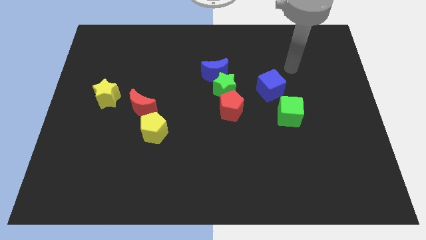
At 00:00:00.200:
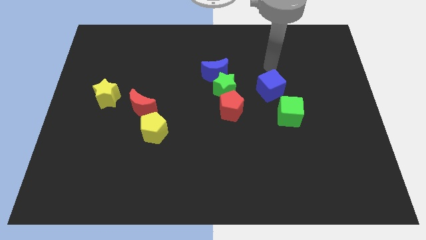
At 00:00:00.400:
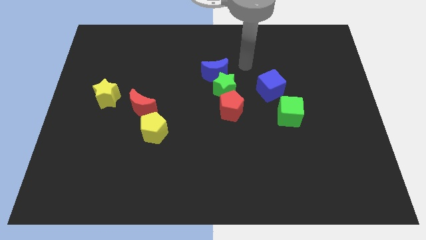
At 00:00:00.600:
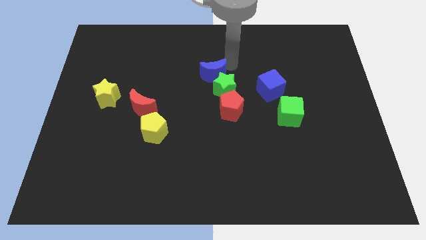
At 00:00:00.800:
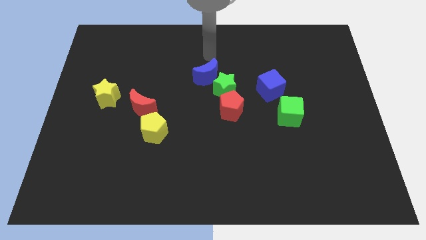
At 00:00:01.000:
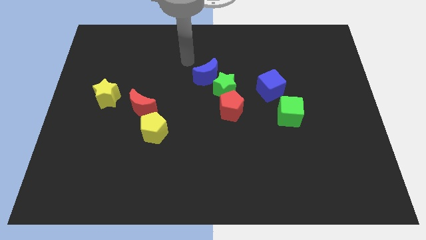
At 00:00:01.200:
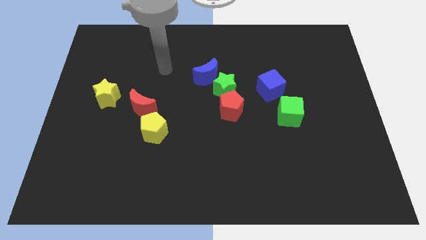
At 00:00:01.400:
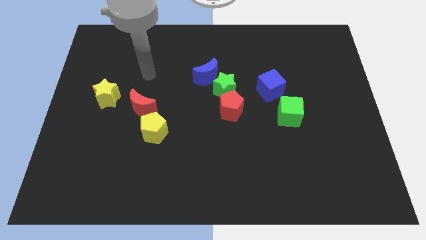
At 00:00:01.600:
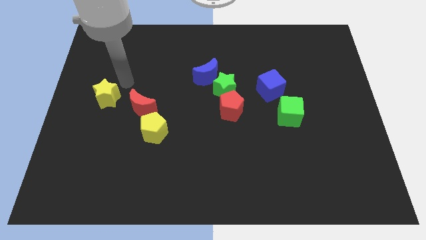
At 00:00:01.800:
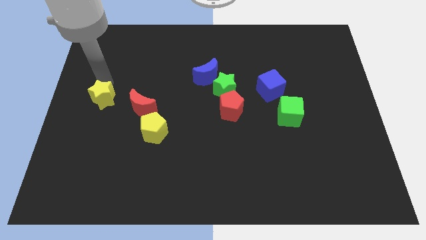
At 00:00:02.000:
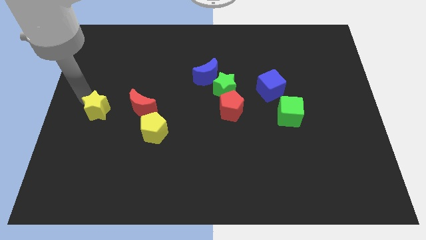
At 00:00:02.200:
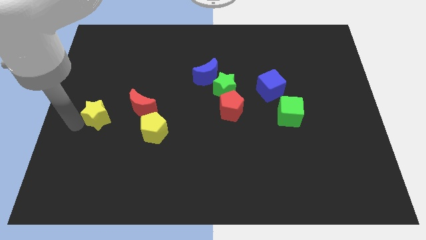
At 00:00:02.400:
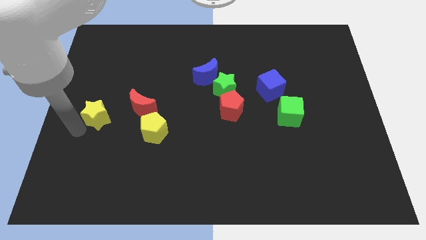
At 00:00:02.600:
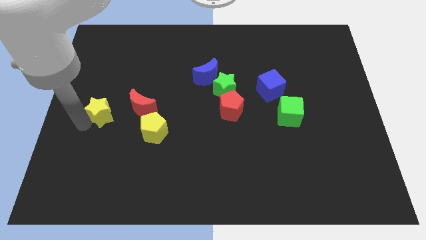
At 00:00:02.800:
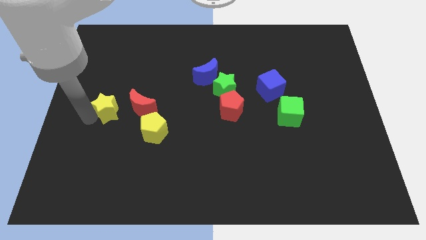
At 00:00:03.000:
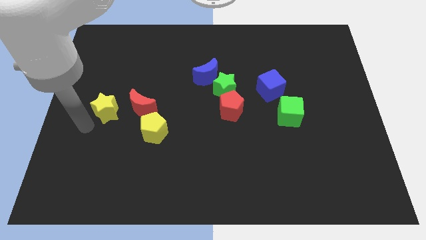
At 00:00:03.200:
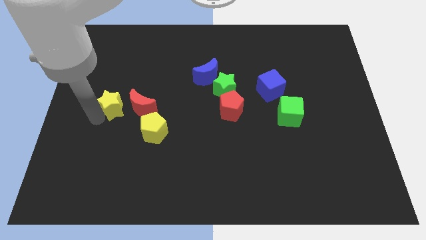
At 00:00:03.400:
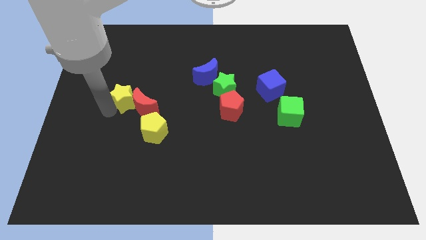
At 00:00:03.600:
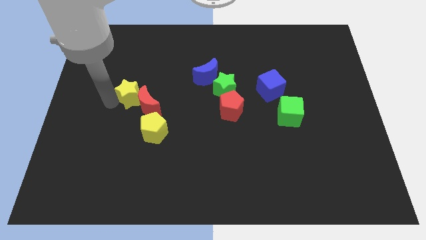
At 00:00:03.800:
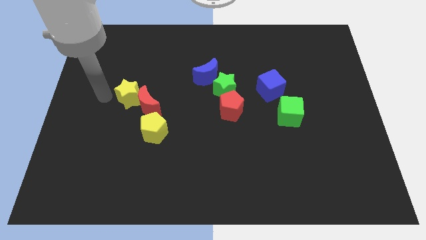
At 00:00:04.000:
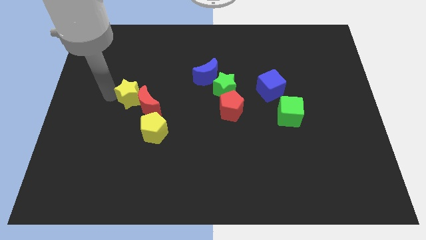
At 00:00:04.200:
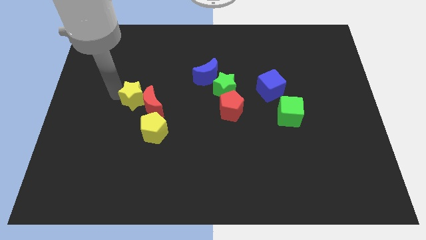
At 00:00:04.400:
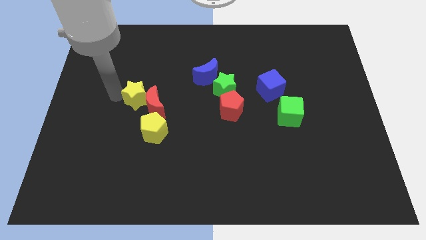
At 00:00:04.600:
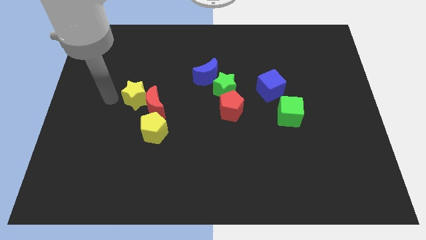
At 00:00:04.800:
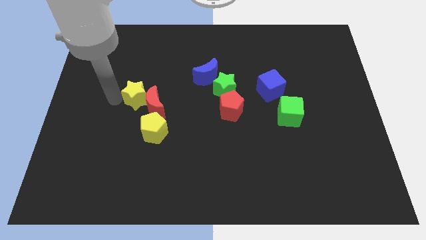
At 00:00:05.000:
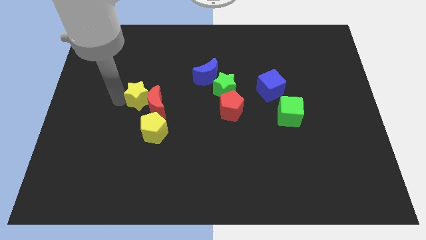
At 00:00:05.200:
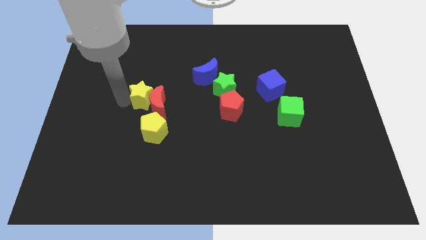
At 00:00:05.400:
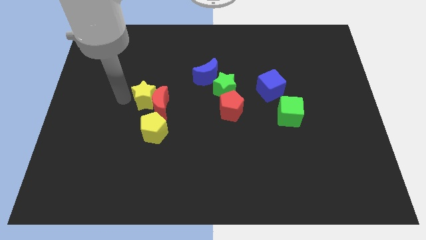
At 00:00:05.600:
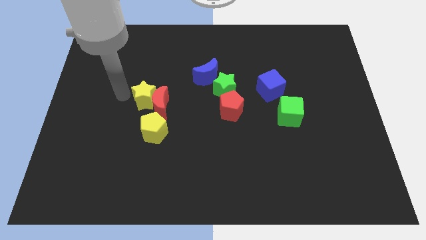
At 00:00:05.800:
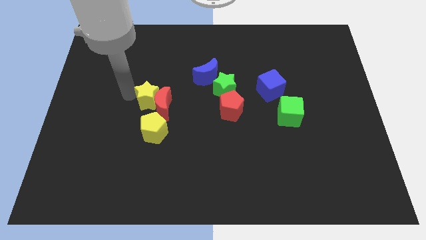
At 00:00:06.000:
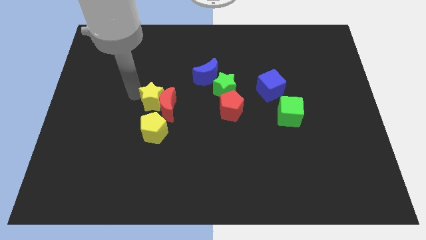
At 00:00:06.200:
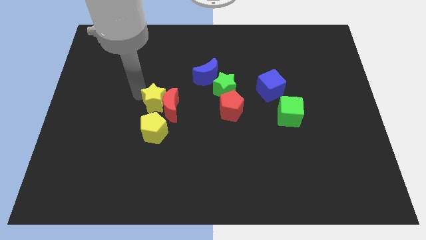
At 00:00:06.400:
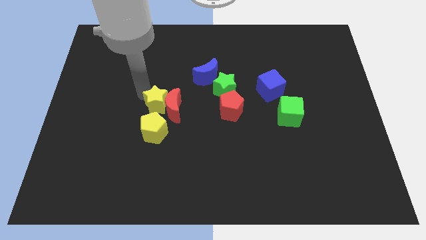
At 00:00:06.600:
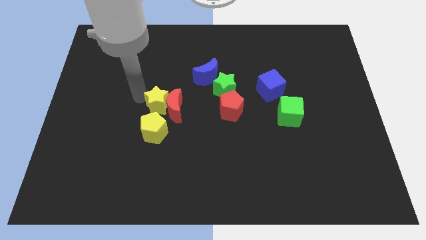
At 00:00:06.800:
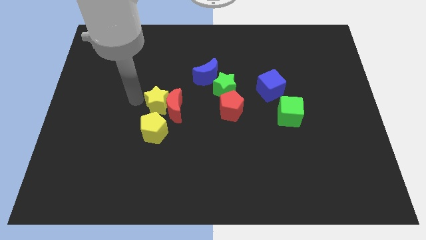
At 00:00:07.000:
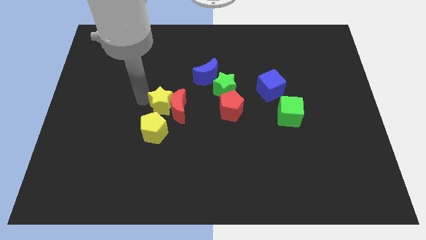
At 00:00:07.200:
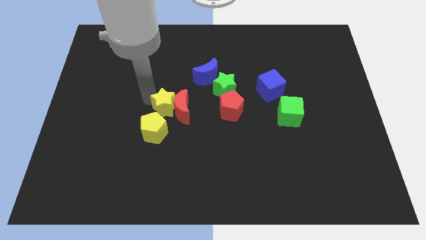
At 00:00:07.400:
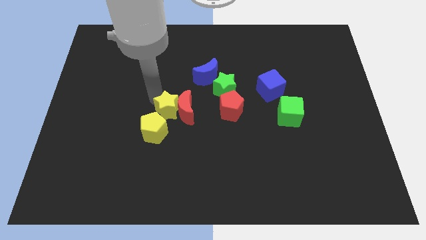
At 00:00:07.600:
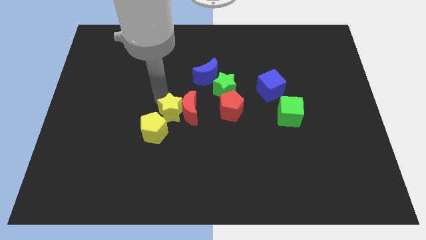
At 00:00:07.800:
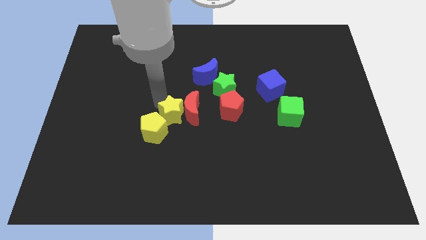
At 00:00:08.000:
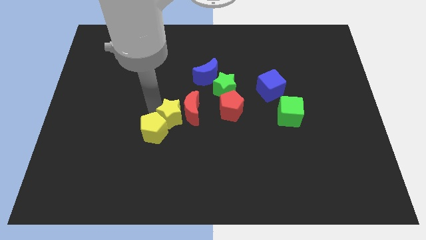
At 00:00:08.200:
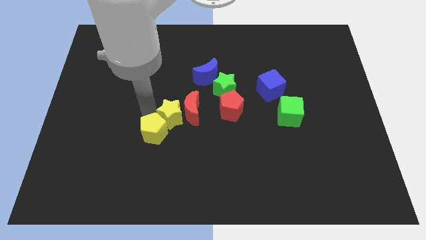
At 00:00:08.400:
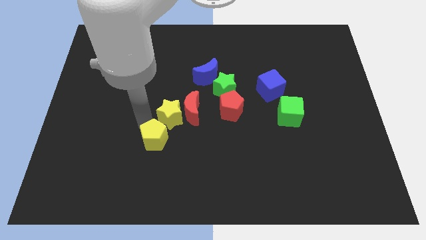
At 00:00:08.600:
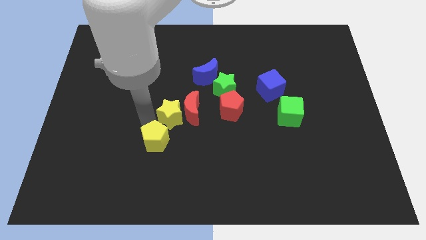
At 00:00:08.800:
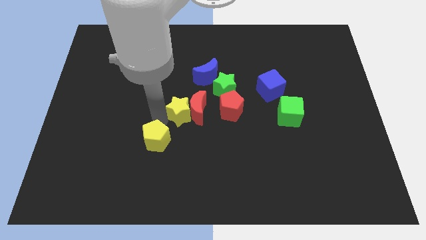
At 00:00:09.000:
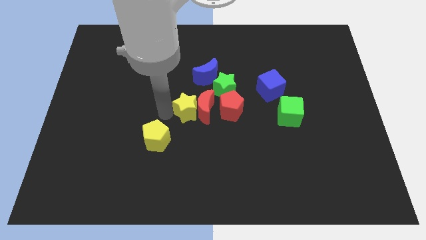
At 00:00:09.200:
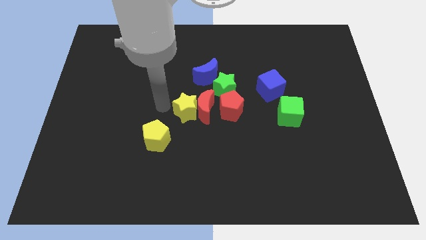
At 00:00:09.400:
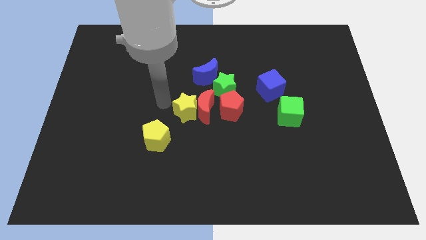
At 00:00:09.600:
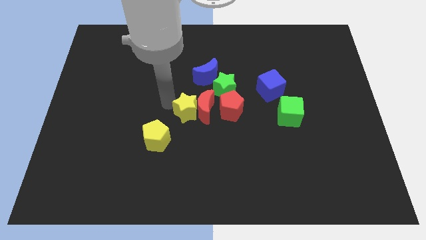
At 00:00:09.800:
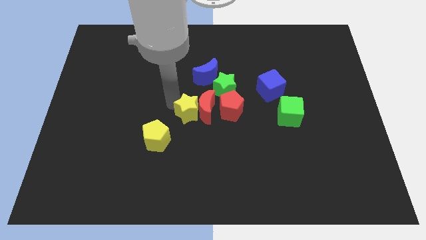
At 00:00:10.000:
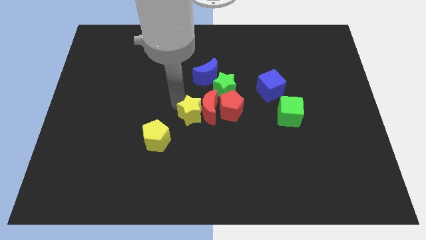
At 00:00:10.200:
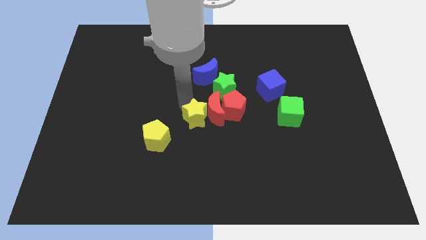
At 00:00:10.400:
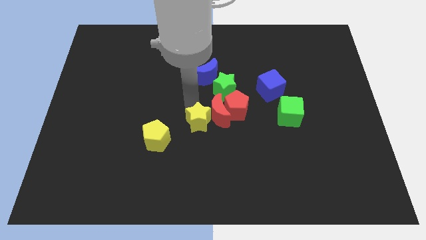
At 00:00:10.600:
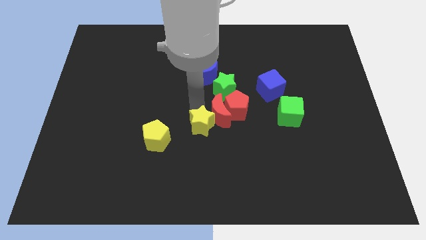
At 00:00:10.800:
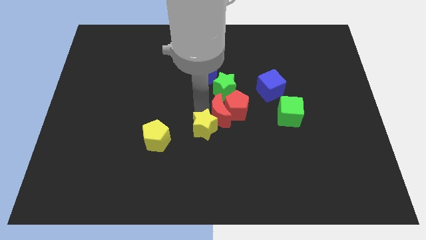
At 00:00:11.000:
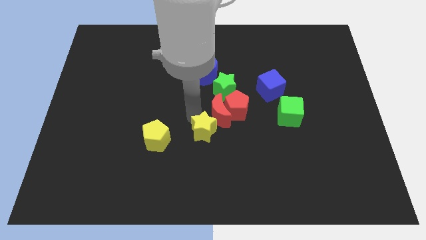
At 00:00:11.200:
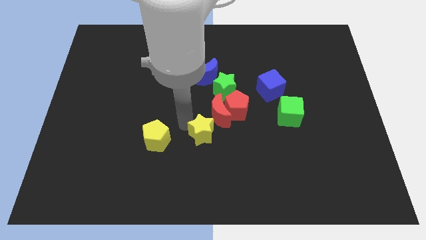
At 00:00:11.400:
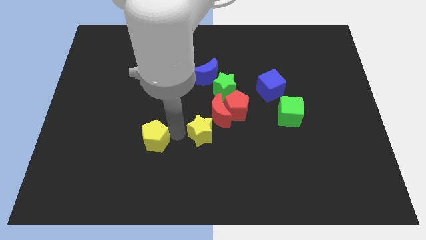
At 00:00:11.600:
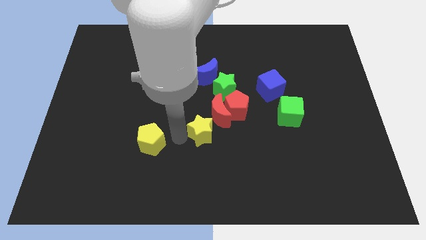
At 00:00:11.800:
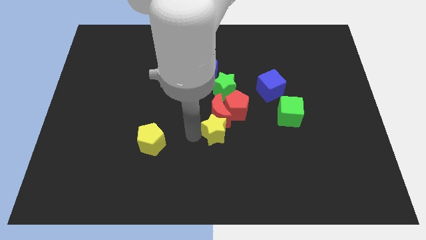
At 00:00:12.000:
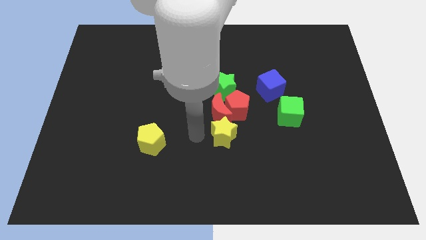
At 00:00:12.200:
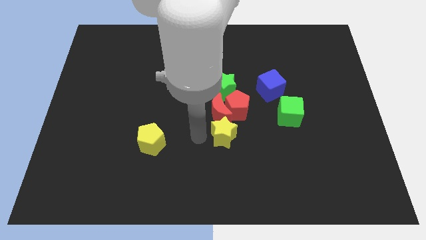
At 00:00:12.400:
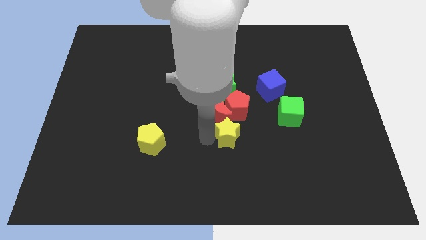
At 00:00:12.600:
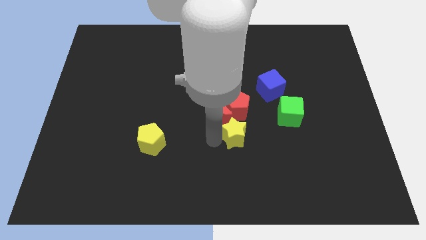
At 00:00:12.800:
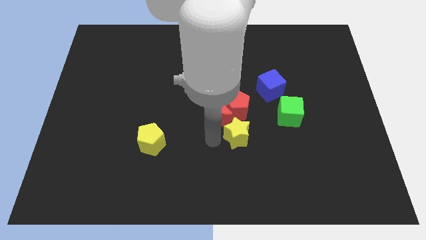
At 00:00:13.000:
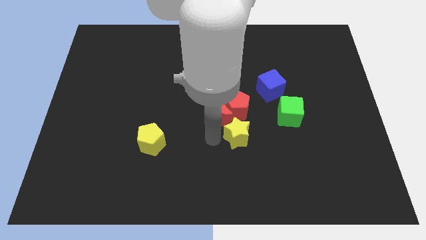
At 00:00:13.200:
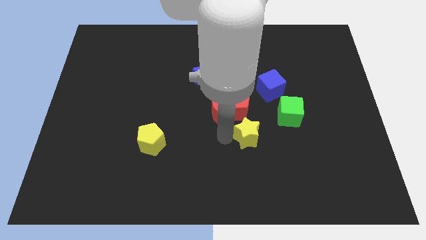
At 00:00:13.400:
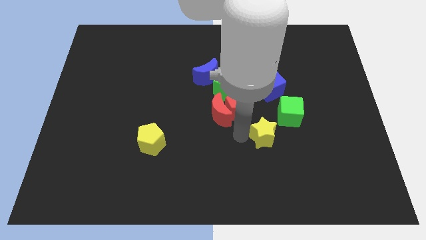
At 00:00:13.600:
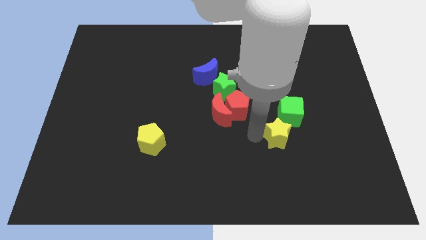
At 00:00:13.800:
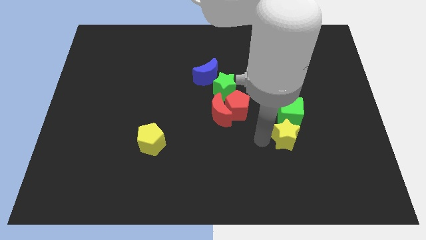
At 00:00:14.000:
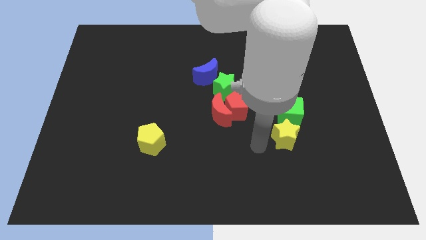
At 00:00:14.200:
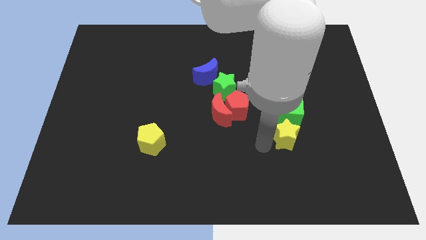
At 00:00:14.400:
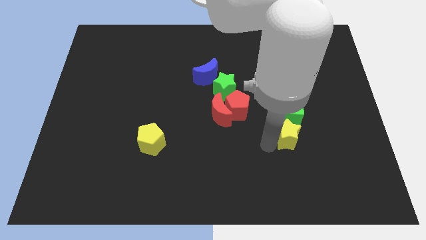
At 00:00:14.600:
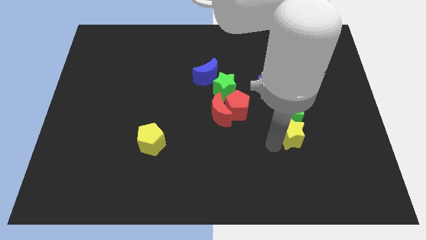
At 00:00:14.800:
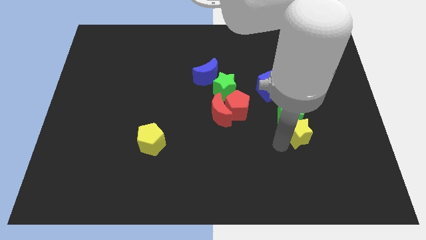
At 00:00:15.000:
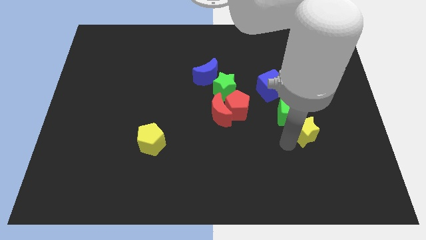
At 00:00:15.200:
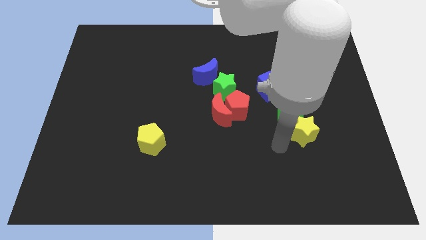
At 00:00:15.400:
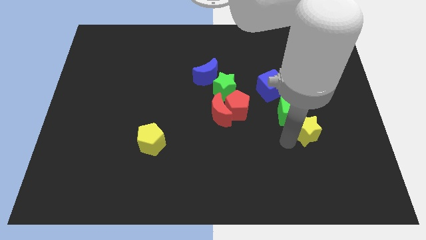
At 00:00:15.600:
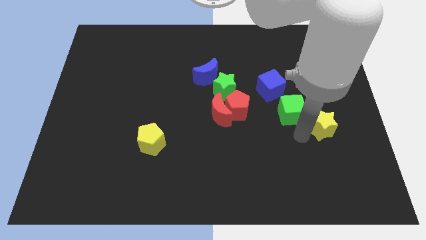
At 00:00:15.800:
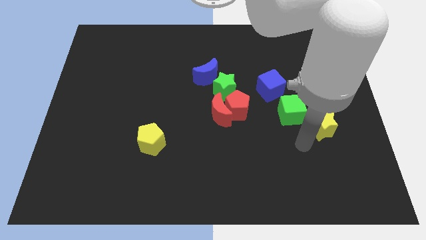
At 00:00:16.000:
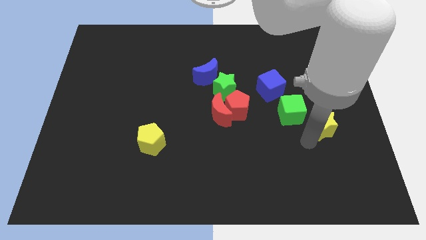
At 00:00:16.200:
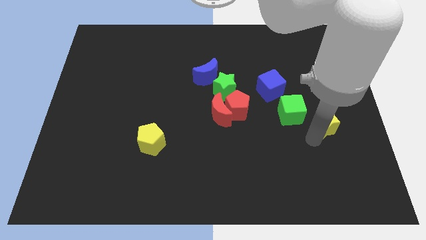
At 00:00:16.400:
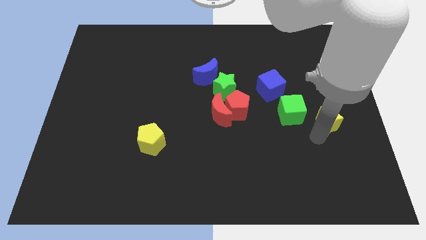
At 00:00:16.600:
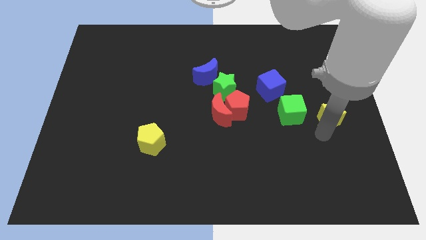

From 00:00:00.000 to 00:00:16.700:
put the yellow star to the right side
